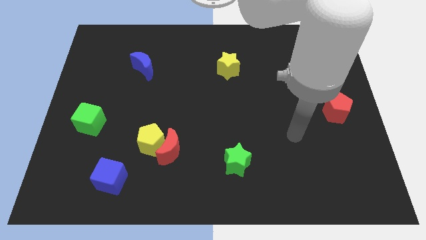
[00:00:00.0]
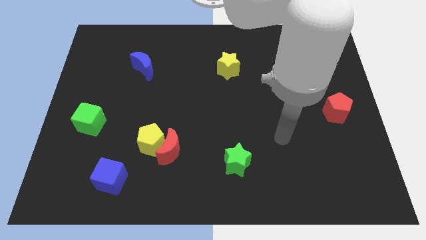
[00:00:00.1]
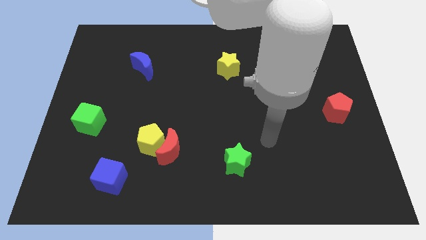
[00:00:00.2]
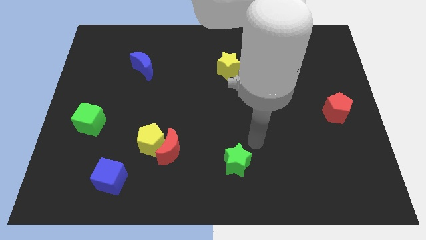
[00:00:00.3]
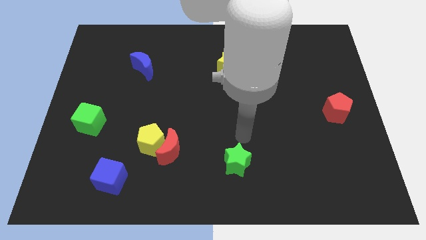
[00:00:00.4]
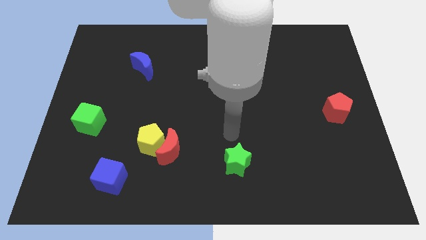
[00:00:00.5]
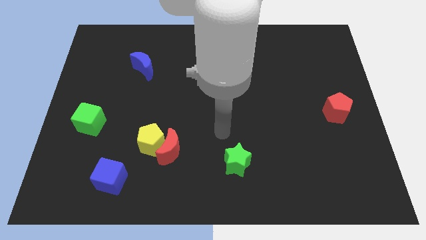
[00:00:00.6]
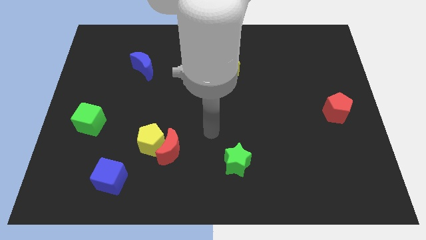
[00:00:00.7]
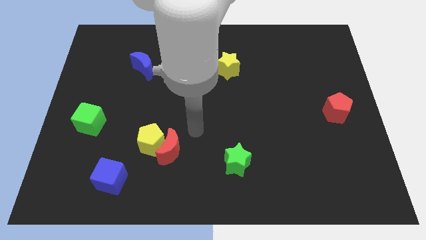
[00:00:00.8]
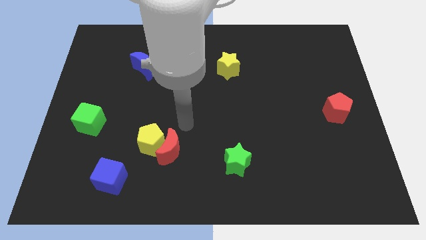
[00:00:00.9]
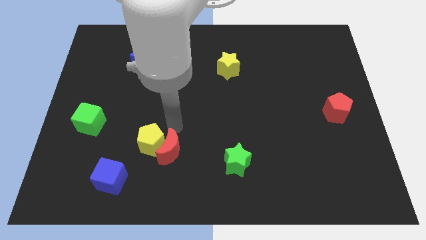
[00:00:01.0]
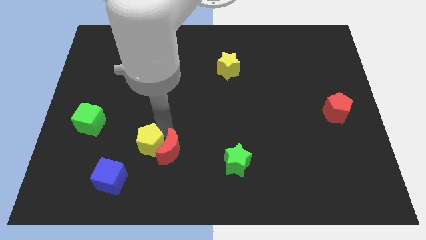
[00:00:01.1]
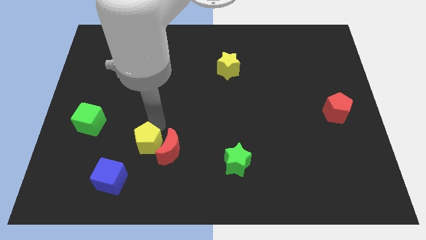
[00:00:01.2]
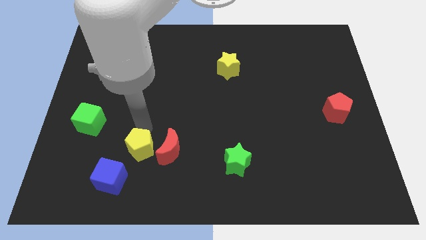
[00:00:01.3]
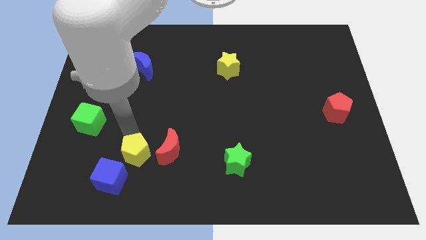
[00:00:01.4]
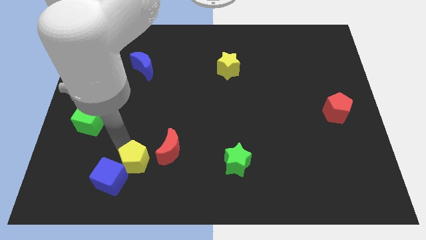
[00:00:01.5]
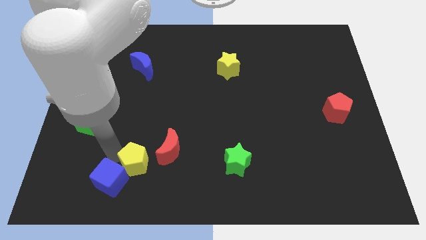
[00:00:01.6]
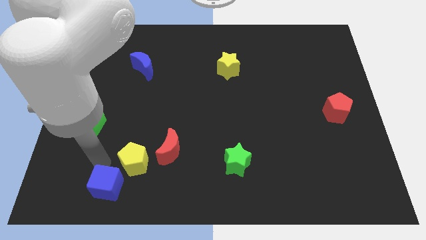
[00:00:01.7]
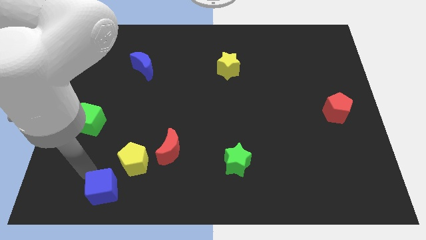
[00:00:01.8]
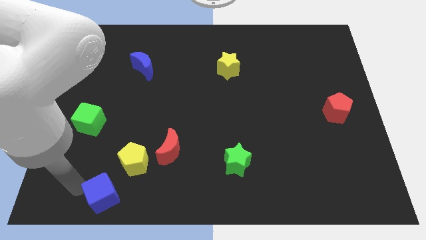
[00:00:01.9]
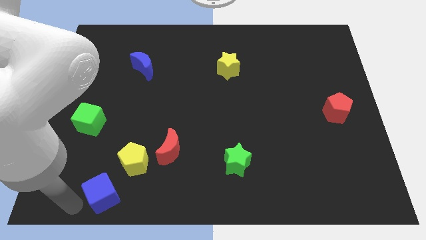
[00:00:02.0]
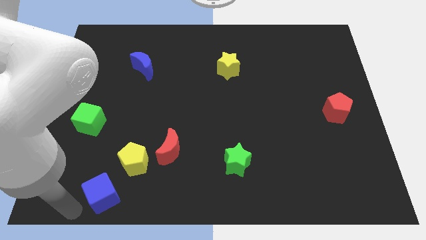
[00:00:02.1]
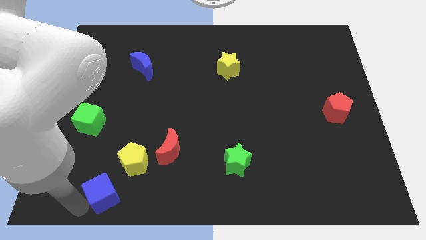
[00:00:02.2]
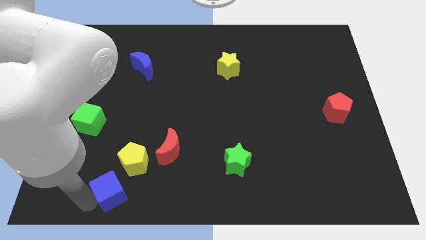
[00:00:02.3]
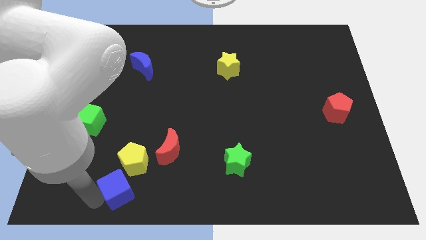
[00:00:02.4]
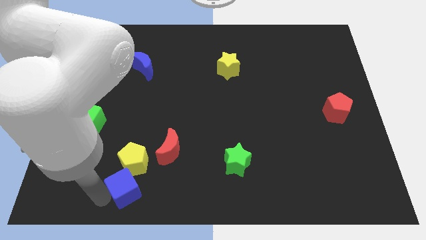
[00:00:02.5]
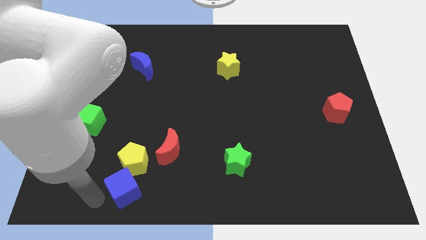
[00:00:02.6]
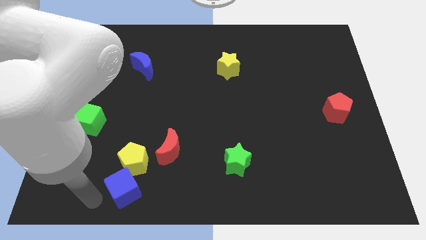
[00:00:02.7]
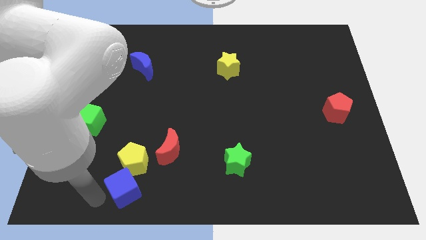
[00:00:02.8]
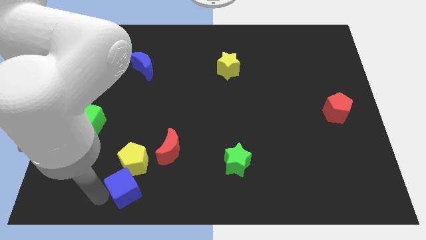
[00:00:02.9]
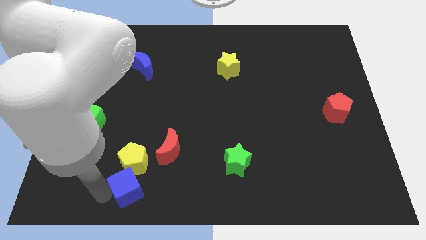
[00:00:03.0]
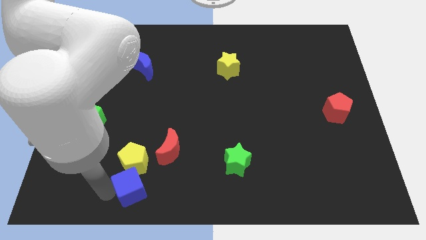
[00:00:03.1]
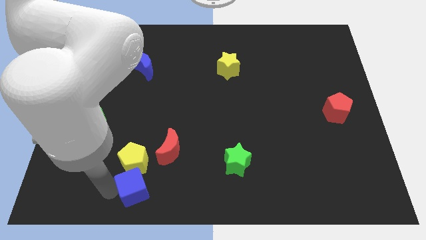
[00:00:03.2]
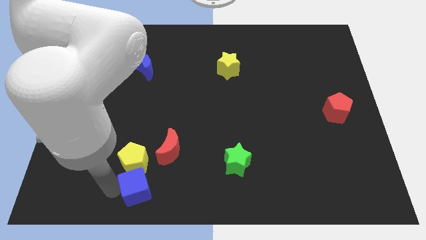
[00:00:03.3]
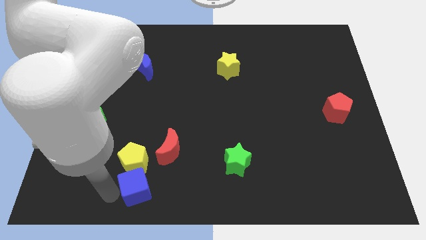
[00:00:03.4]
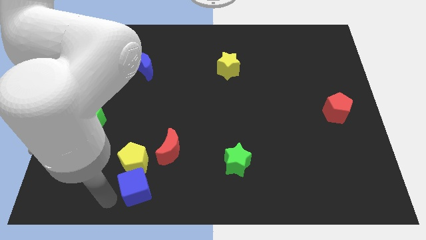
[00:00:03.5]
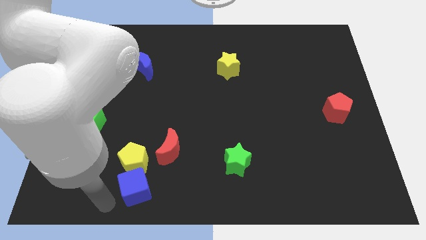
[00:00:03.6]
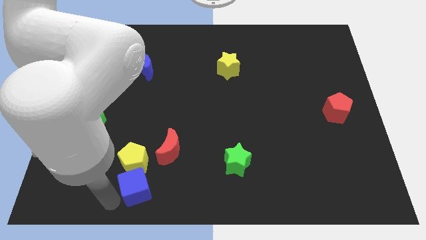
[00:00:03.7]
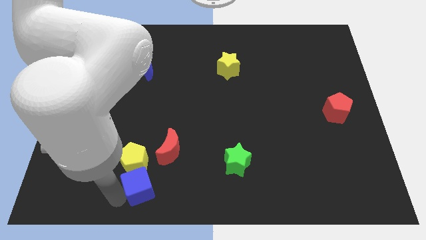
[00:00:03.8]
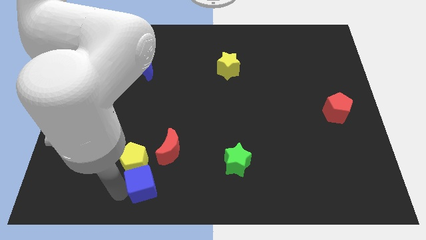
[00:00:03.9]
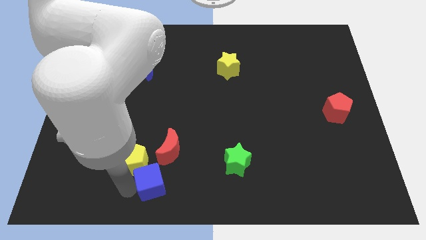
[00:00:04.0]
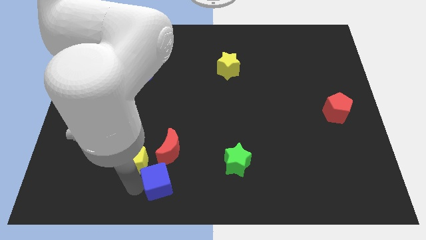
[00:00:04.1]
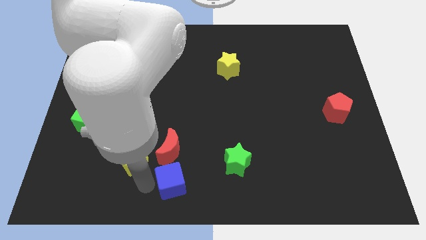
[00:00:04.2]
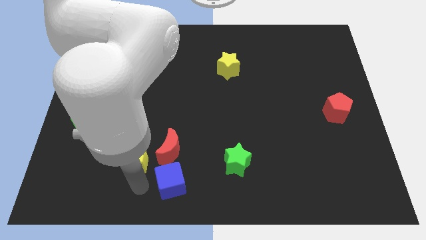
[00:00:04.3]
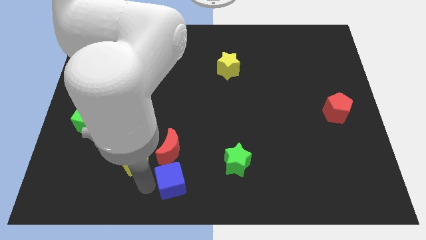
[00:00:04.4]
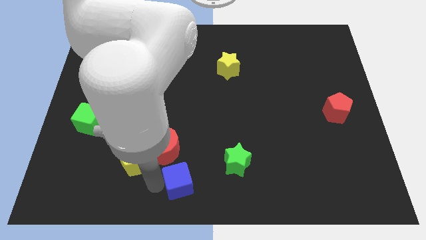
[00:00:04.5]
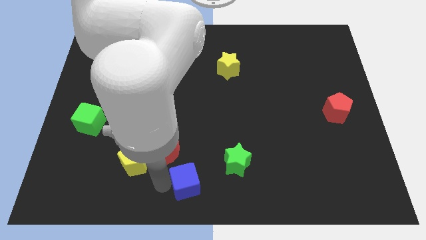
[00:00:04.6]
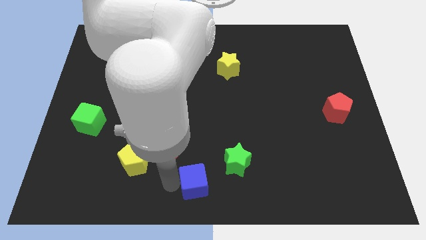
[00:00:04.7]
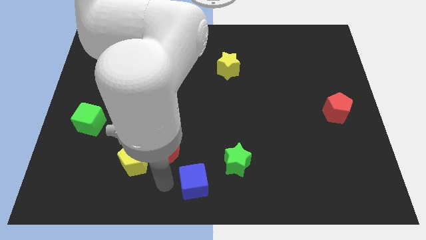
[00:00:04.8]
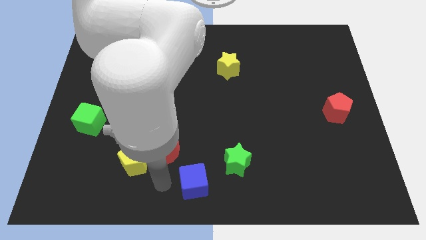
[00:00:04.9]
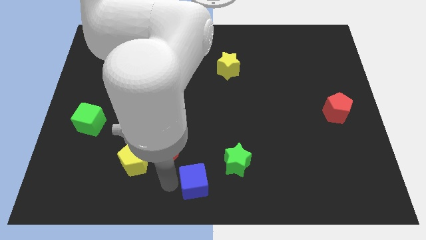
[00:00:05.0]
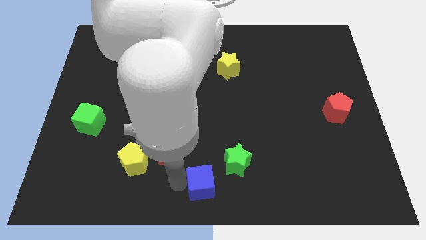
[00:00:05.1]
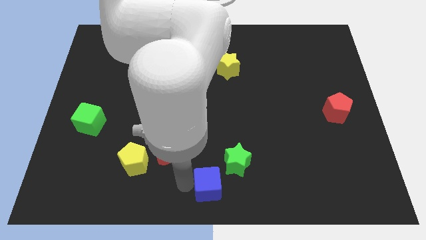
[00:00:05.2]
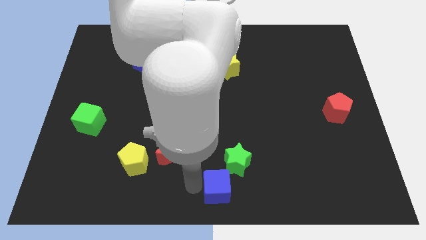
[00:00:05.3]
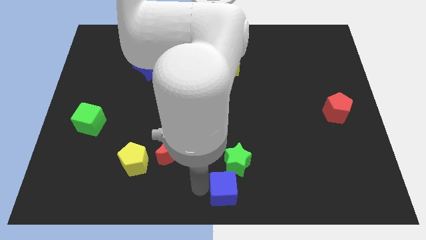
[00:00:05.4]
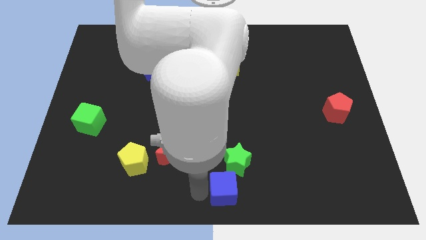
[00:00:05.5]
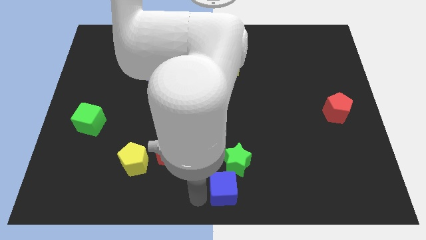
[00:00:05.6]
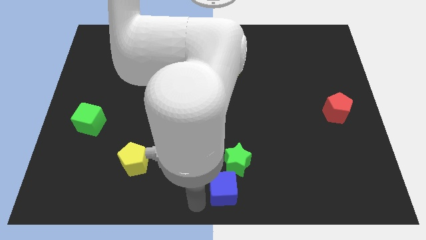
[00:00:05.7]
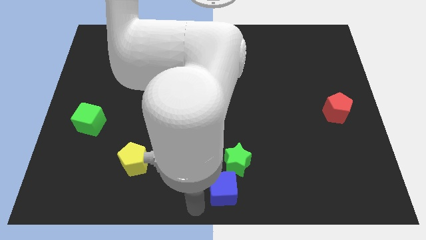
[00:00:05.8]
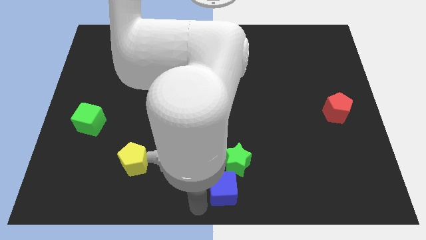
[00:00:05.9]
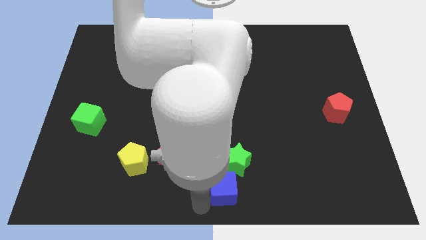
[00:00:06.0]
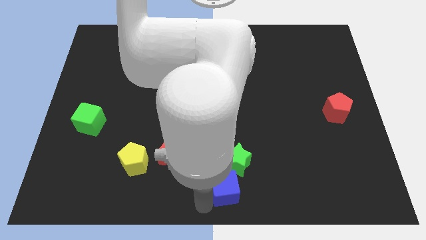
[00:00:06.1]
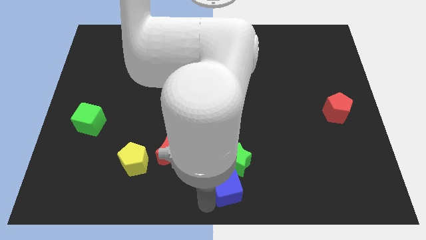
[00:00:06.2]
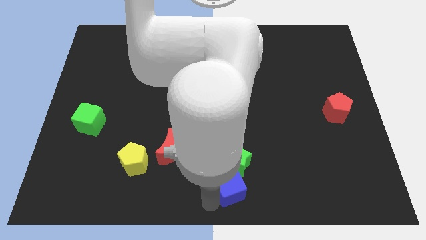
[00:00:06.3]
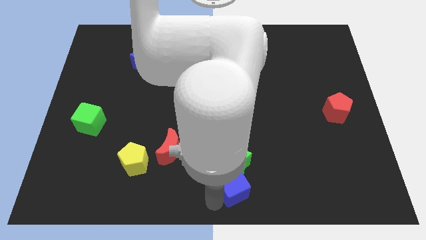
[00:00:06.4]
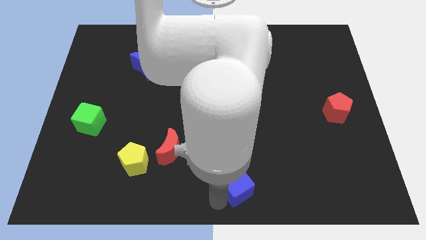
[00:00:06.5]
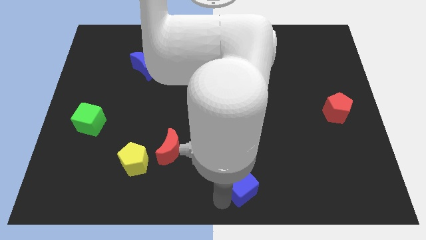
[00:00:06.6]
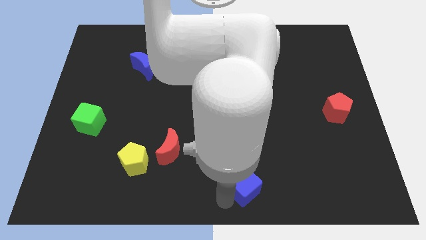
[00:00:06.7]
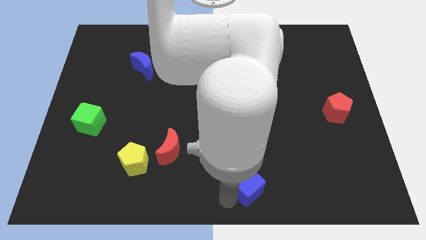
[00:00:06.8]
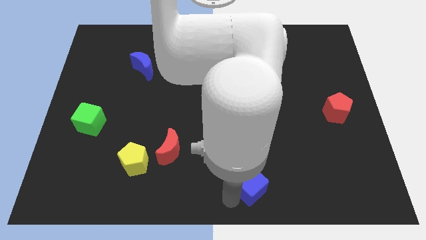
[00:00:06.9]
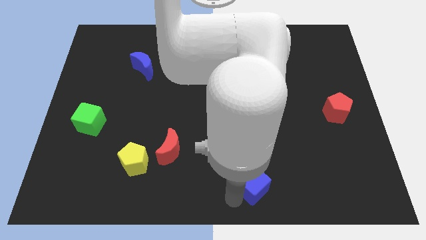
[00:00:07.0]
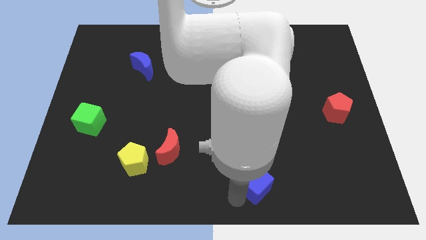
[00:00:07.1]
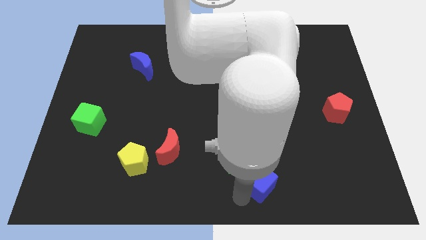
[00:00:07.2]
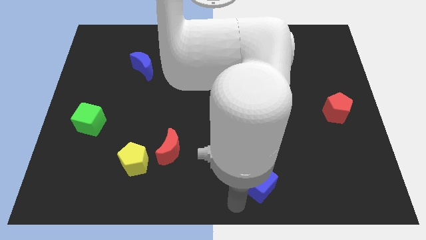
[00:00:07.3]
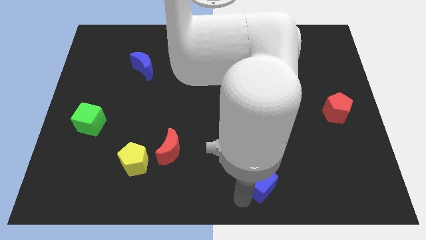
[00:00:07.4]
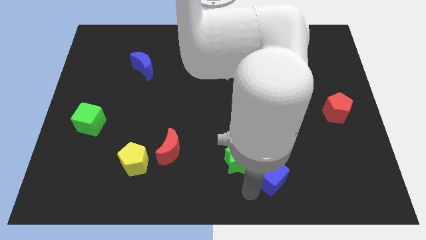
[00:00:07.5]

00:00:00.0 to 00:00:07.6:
put the blue cube to the right side of the green star
